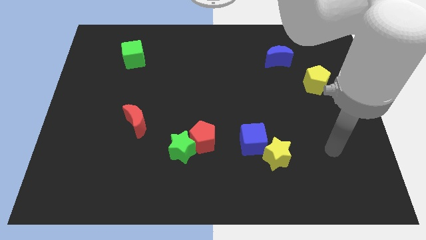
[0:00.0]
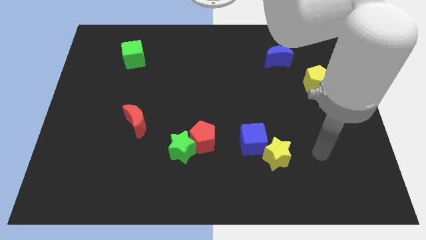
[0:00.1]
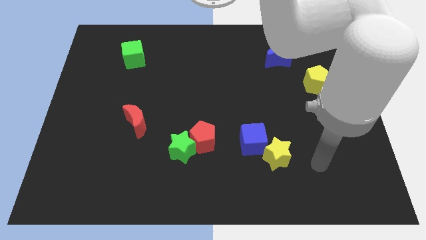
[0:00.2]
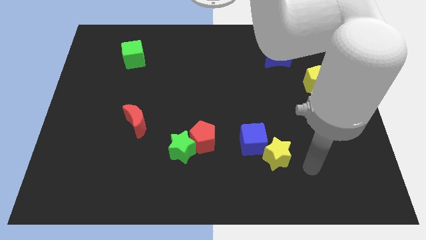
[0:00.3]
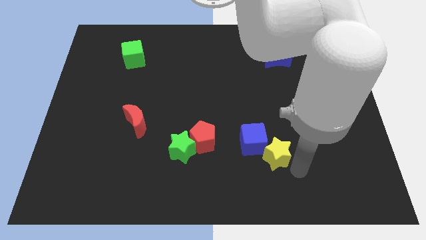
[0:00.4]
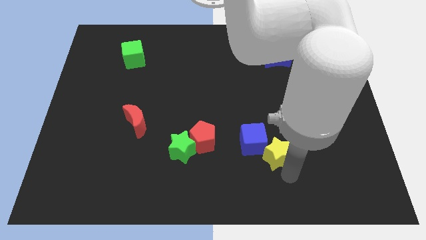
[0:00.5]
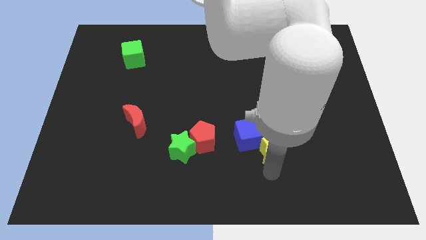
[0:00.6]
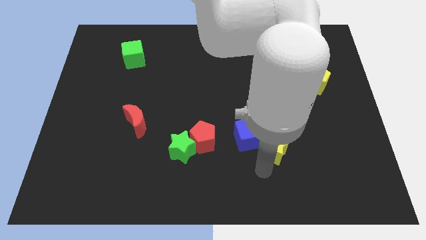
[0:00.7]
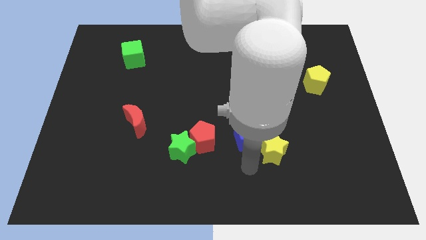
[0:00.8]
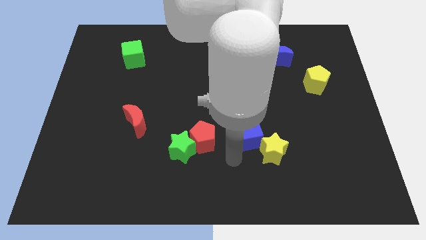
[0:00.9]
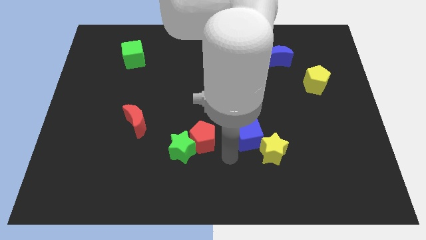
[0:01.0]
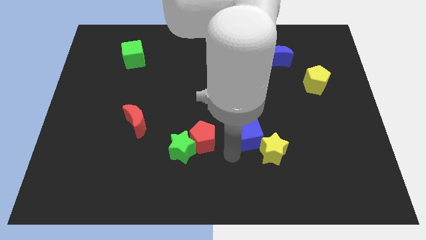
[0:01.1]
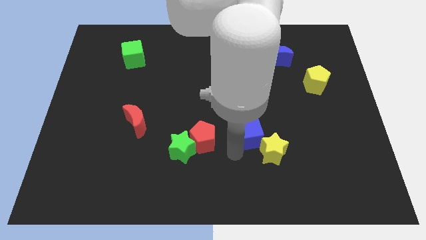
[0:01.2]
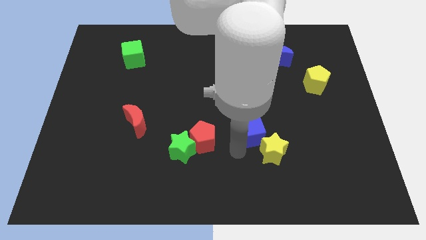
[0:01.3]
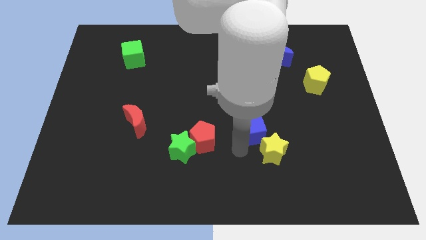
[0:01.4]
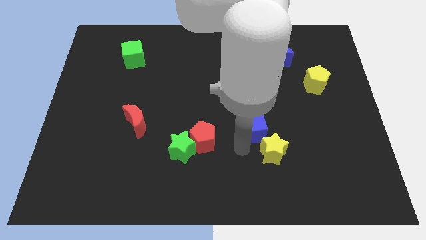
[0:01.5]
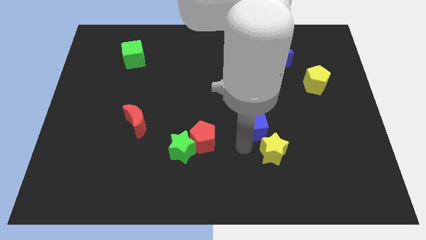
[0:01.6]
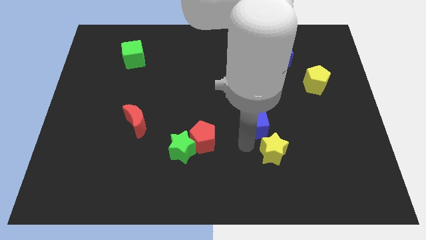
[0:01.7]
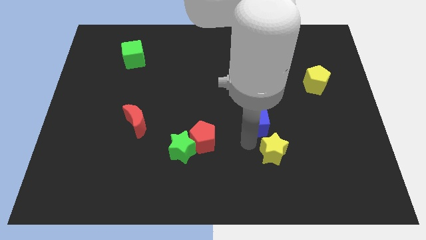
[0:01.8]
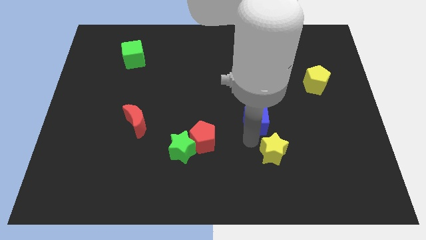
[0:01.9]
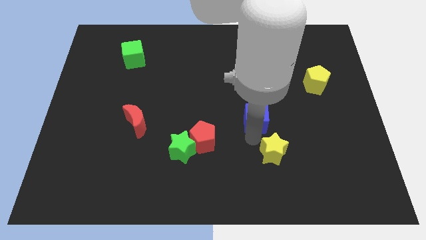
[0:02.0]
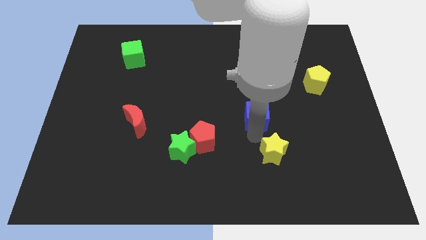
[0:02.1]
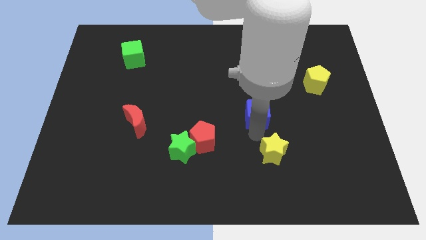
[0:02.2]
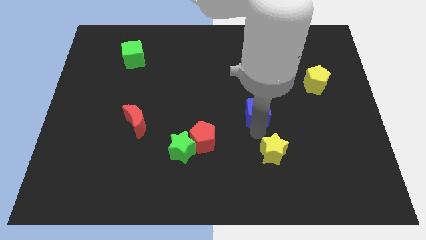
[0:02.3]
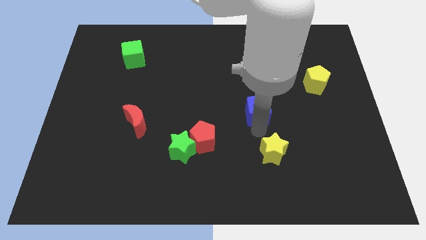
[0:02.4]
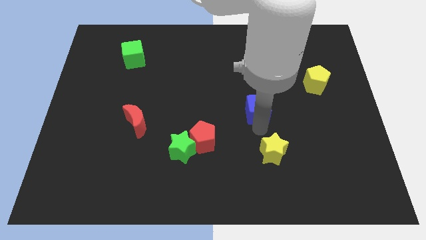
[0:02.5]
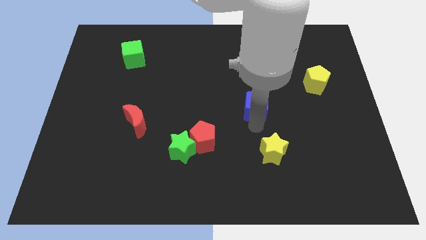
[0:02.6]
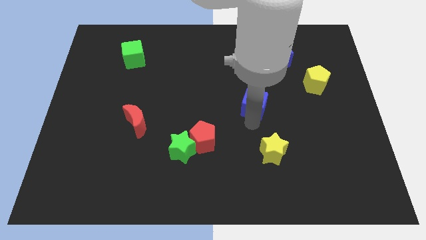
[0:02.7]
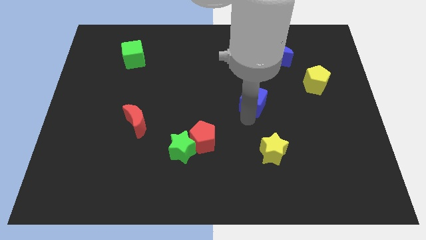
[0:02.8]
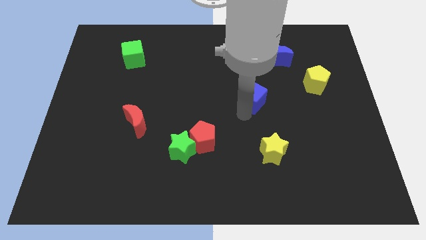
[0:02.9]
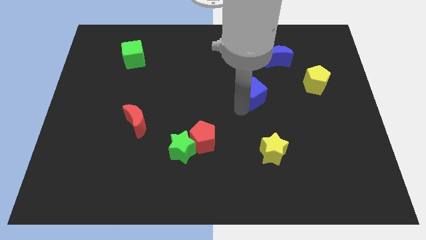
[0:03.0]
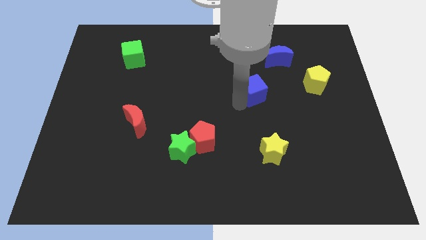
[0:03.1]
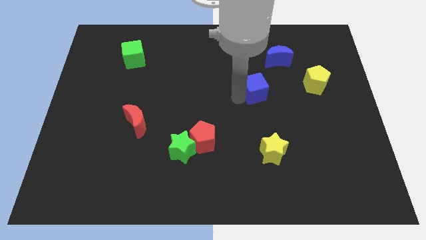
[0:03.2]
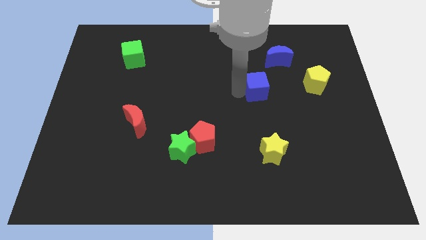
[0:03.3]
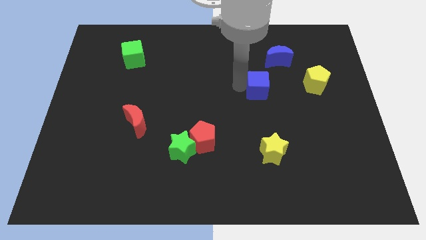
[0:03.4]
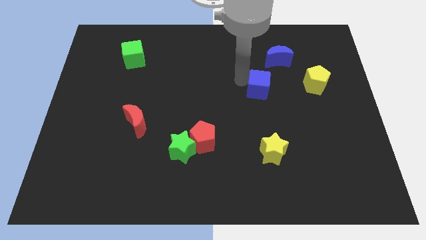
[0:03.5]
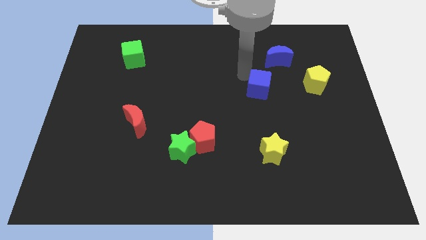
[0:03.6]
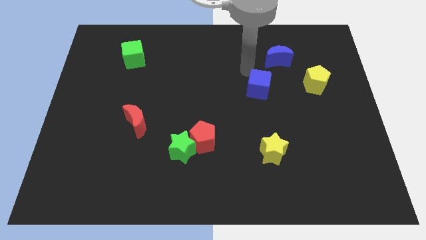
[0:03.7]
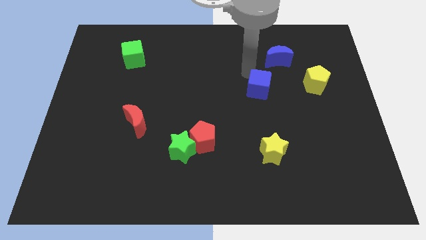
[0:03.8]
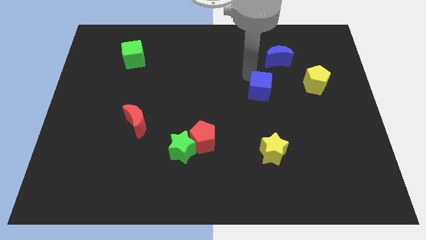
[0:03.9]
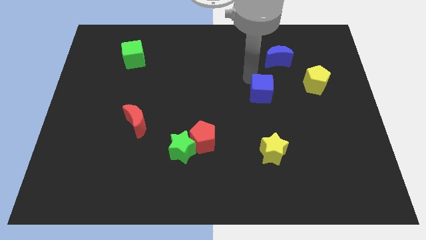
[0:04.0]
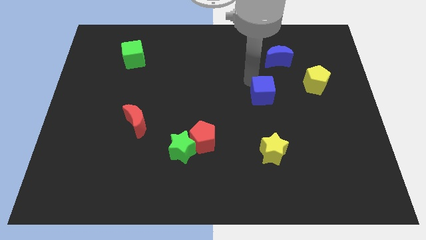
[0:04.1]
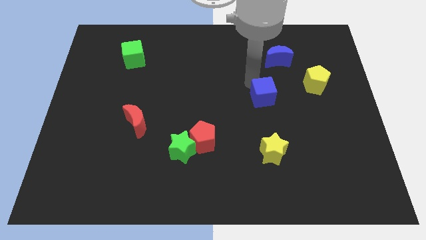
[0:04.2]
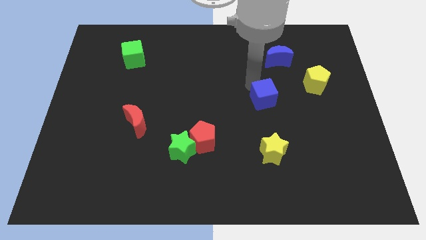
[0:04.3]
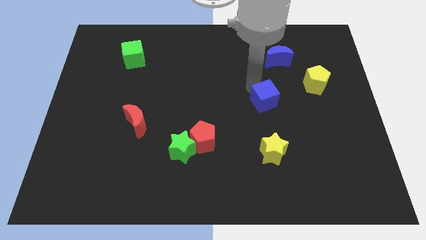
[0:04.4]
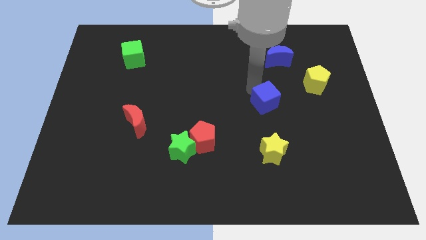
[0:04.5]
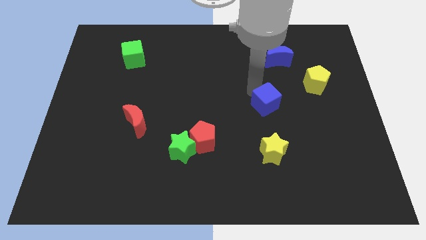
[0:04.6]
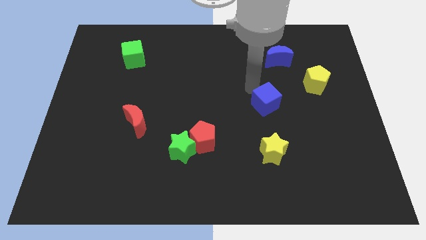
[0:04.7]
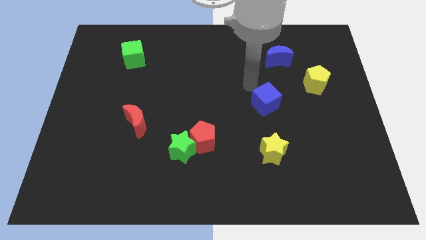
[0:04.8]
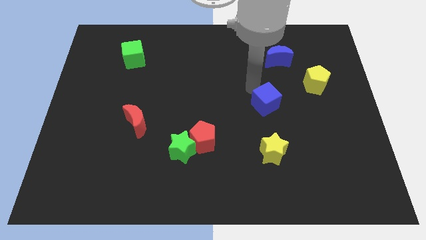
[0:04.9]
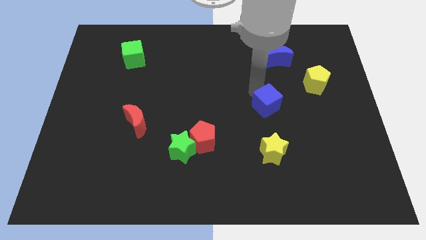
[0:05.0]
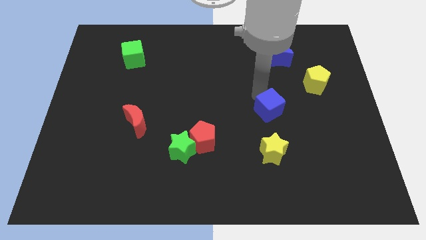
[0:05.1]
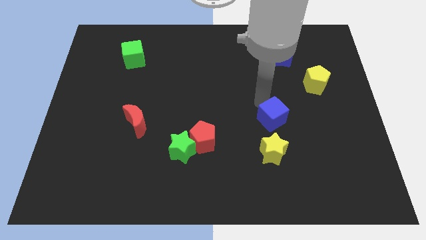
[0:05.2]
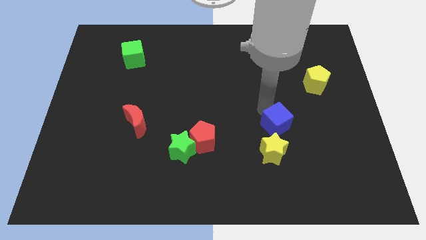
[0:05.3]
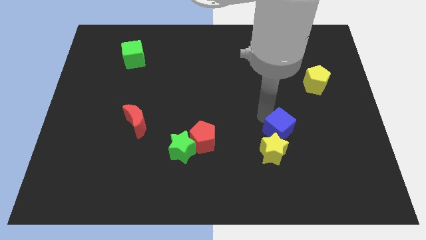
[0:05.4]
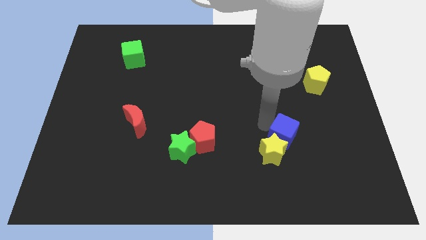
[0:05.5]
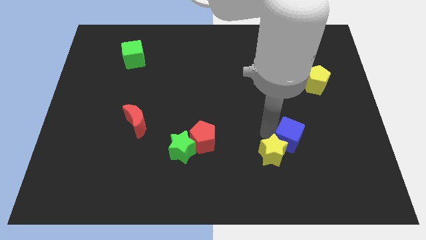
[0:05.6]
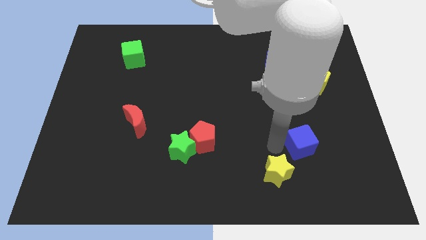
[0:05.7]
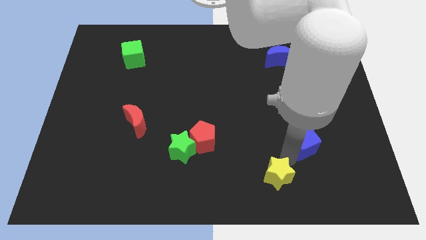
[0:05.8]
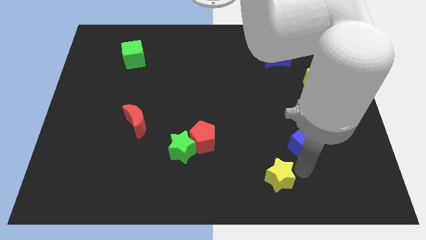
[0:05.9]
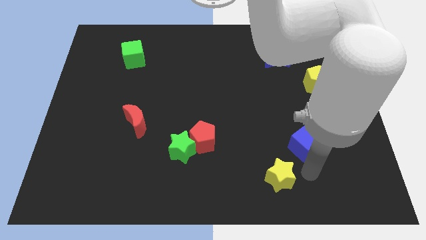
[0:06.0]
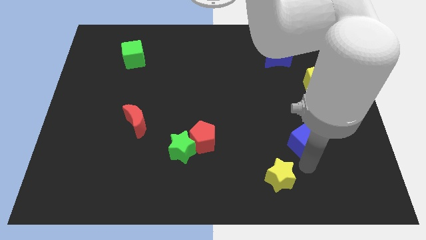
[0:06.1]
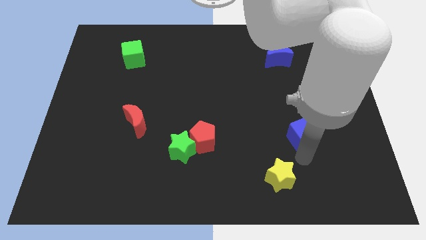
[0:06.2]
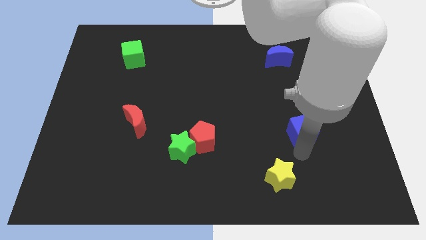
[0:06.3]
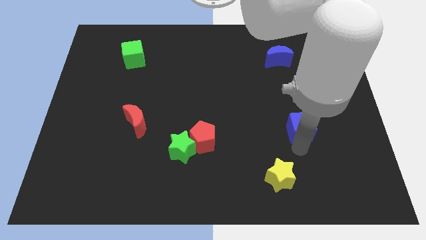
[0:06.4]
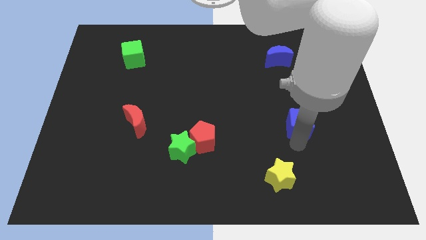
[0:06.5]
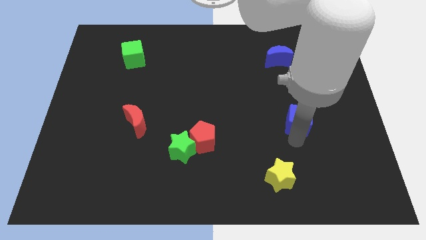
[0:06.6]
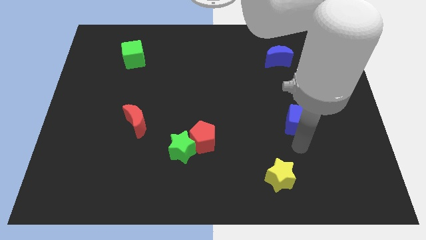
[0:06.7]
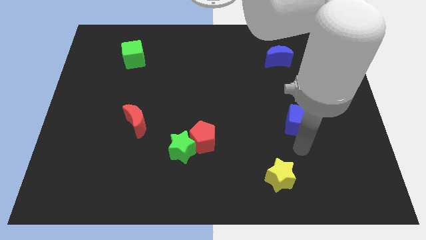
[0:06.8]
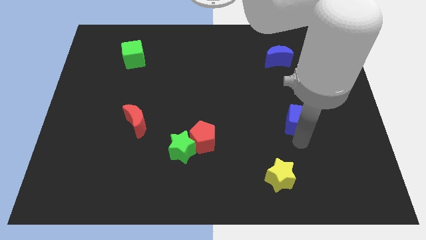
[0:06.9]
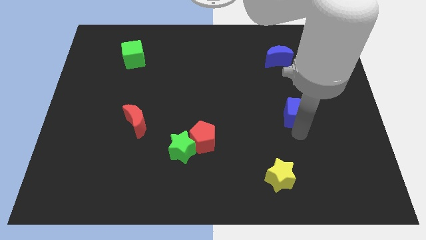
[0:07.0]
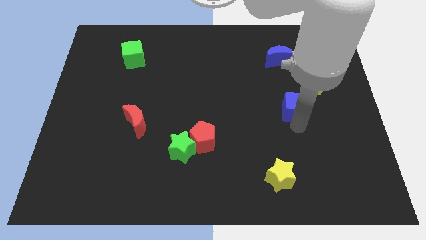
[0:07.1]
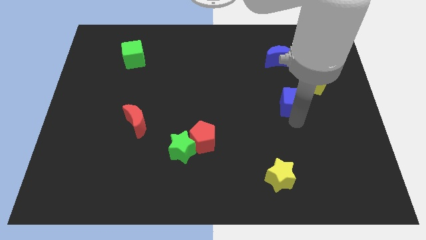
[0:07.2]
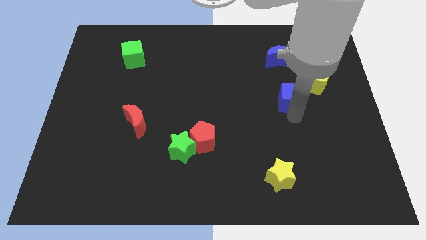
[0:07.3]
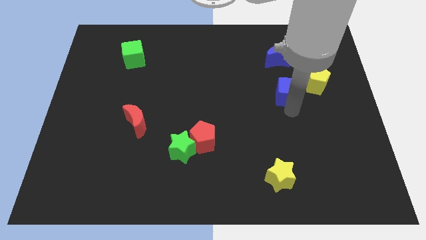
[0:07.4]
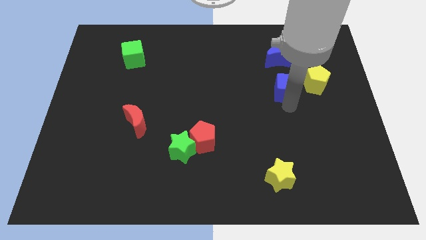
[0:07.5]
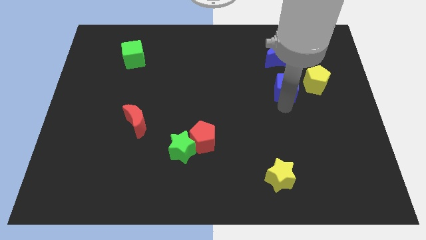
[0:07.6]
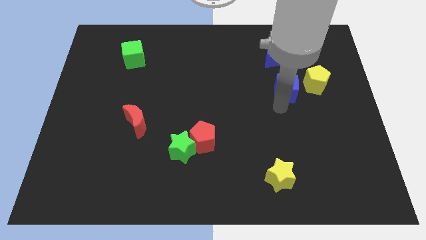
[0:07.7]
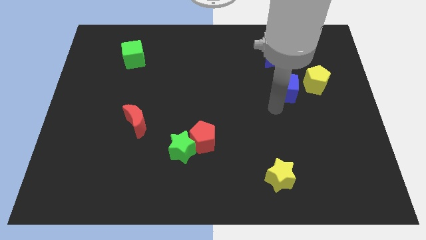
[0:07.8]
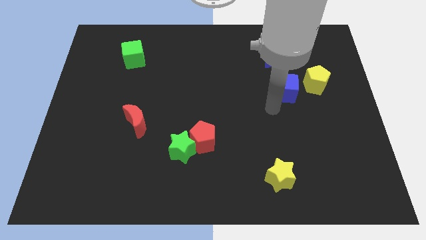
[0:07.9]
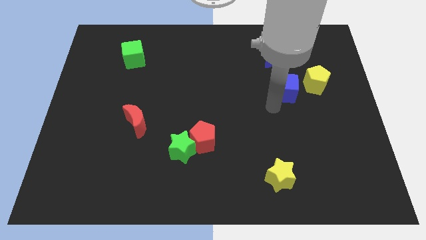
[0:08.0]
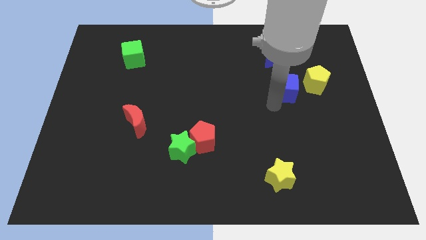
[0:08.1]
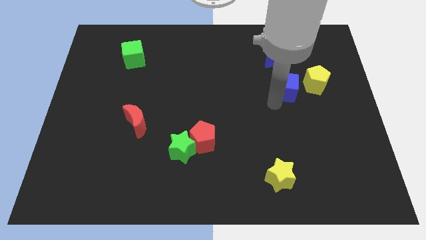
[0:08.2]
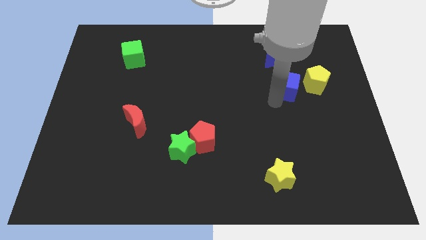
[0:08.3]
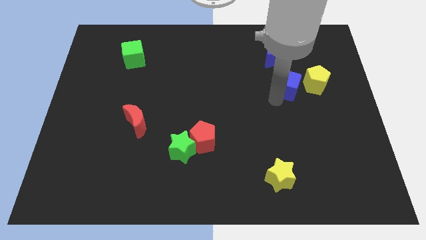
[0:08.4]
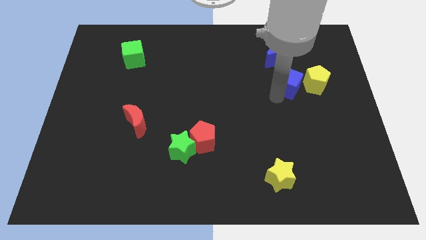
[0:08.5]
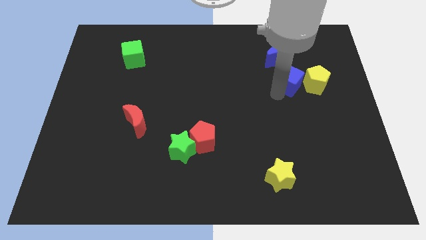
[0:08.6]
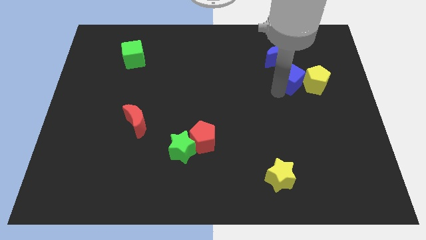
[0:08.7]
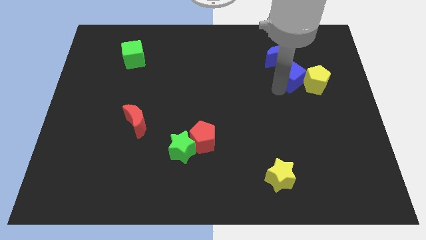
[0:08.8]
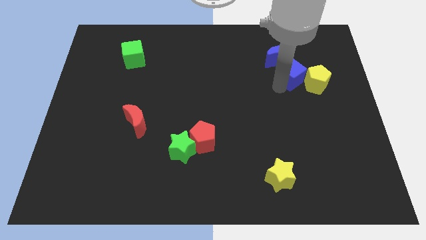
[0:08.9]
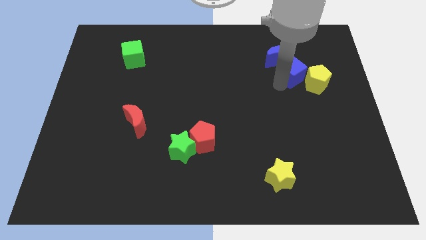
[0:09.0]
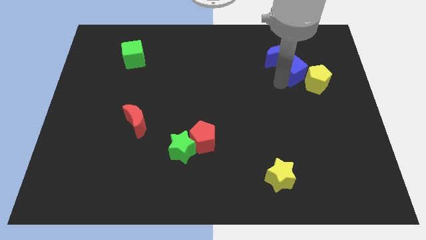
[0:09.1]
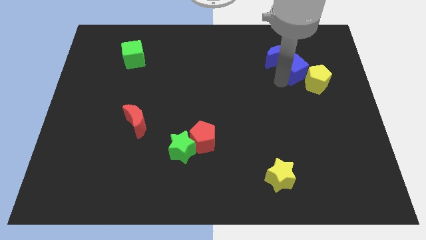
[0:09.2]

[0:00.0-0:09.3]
slide the blue cube right of the blue moon
